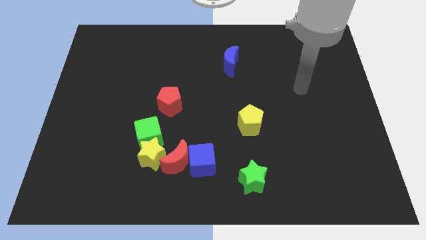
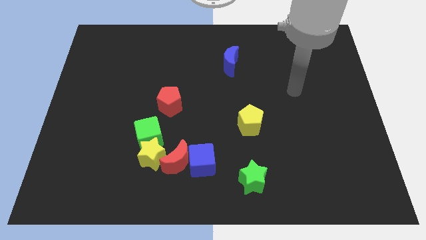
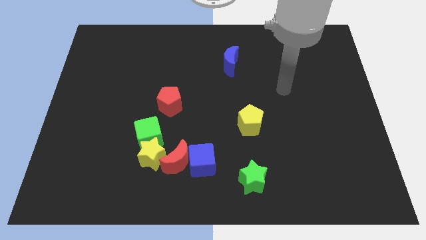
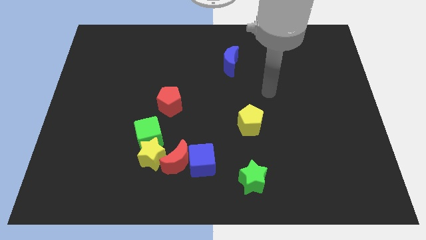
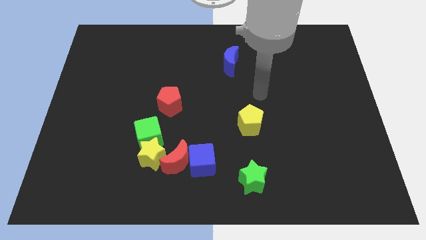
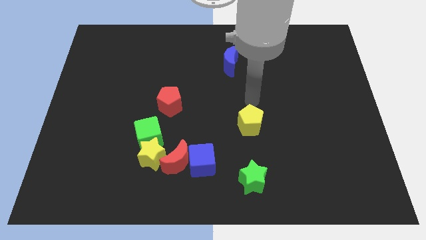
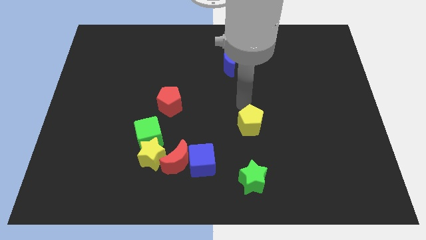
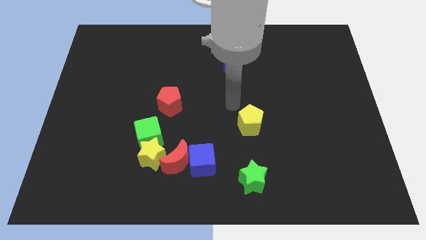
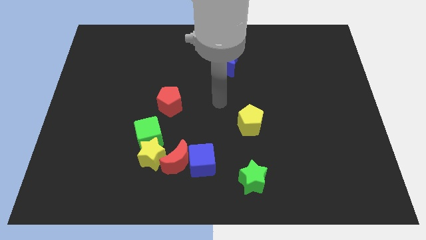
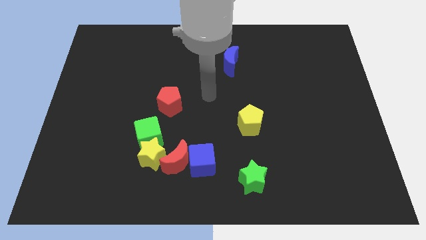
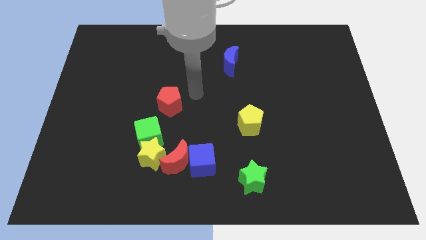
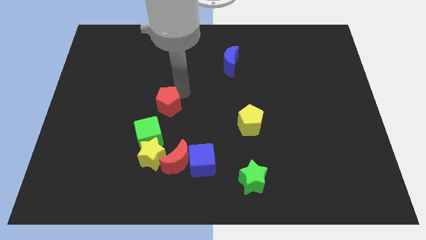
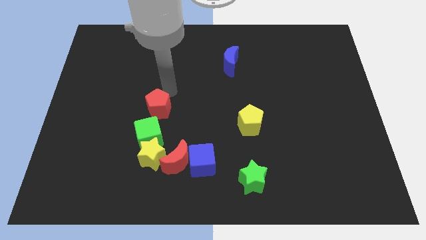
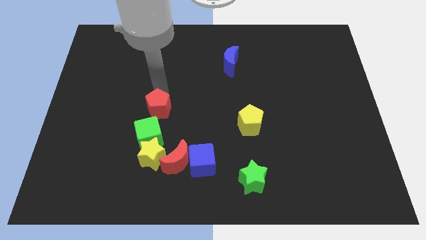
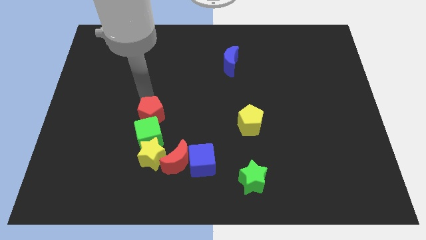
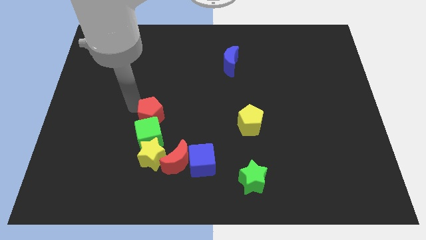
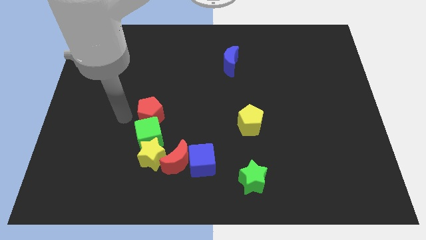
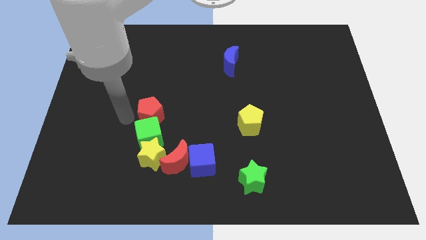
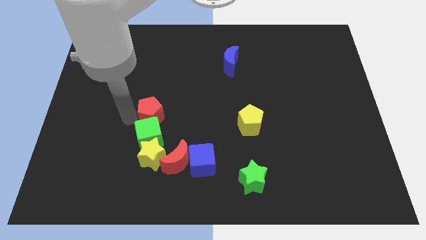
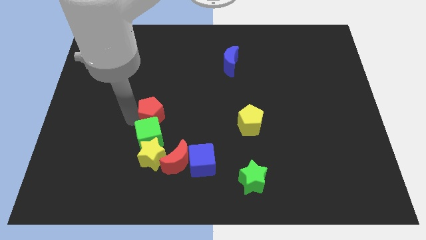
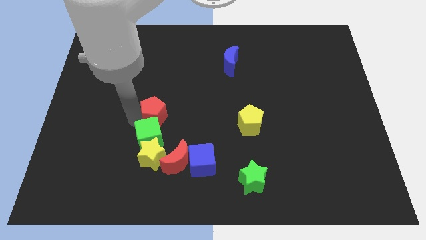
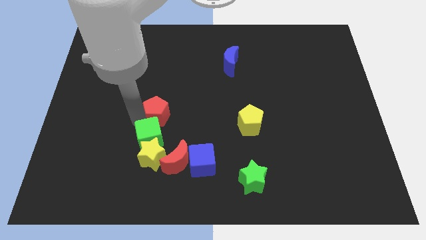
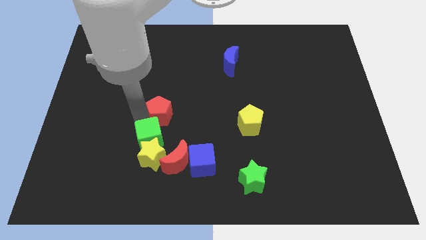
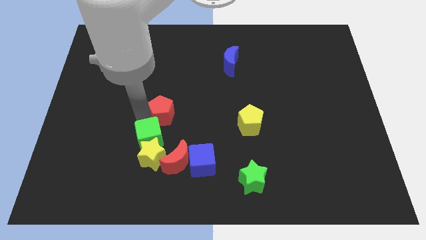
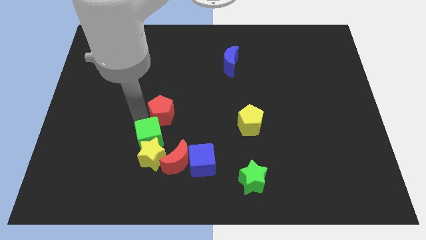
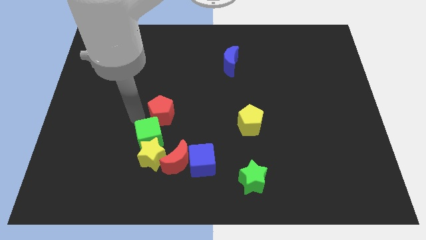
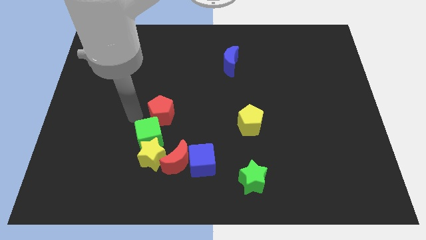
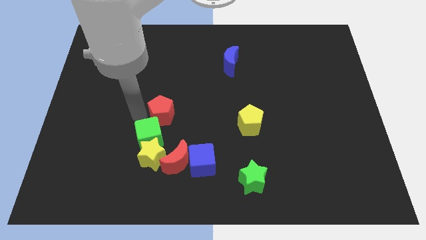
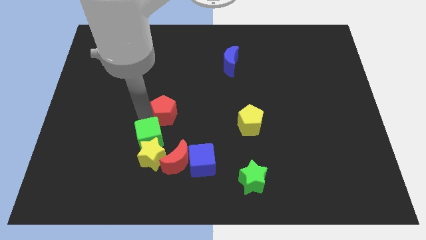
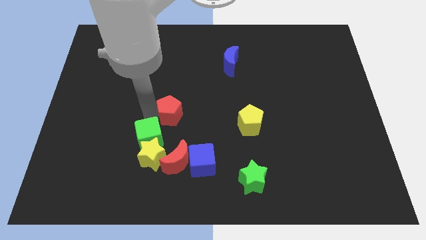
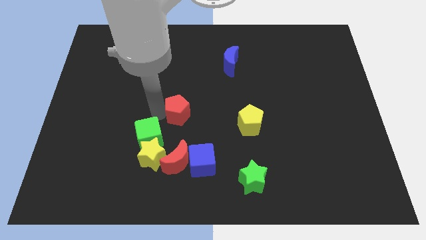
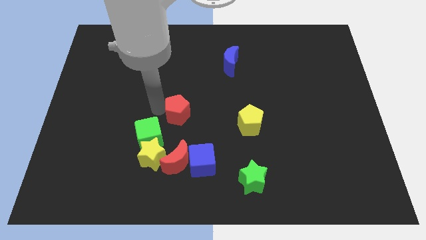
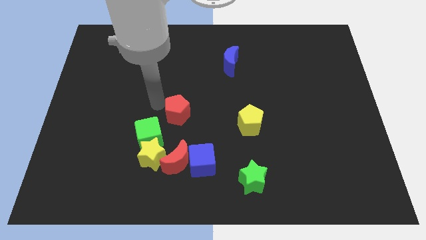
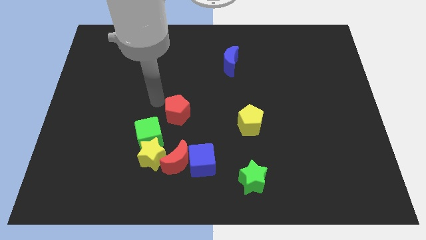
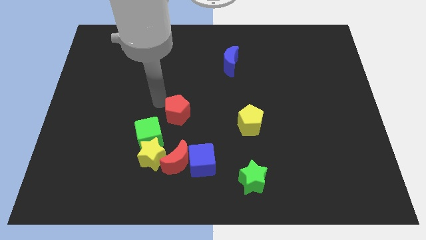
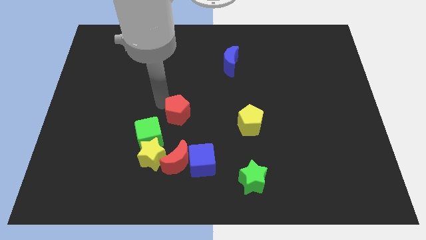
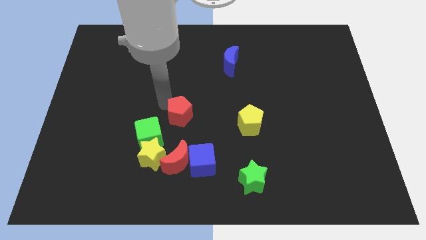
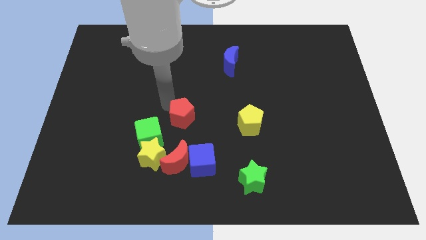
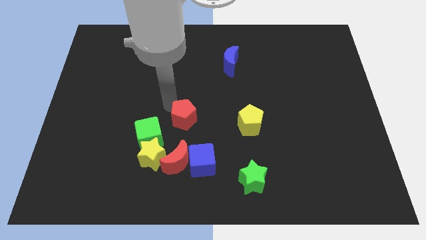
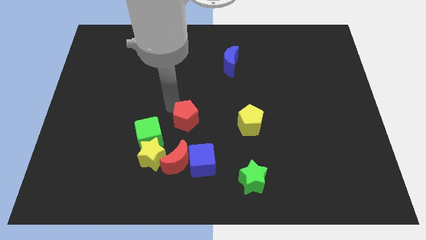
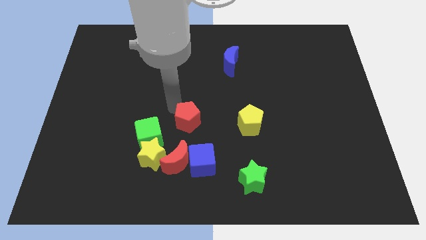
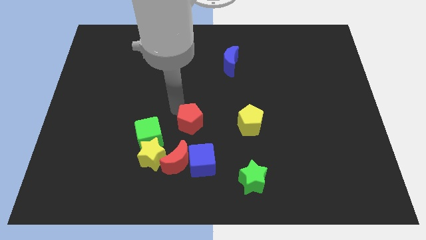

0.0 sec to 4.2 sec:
slightly slide the red pentagon down and right diagonally

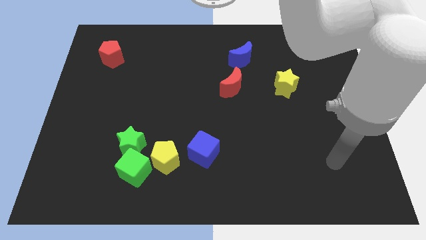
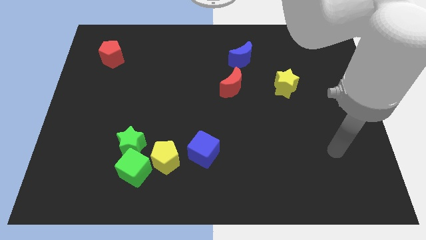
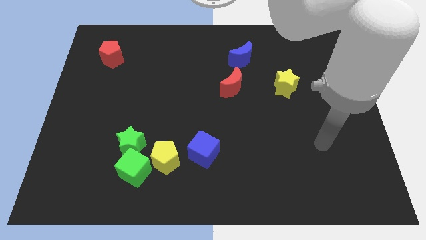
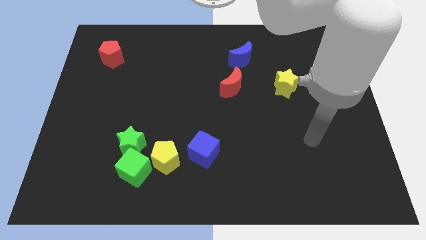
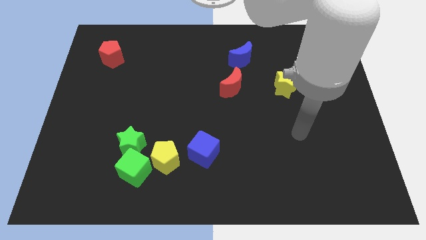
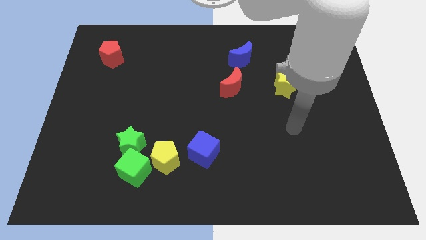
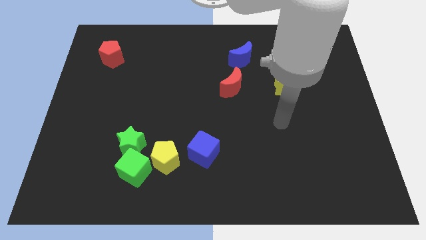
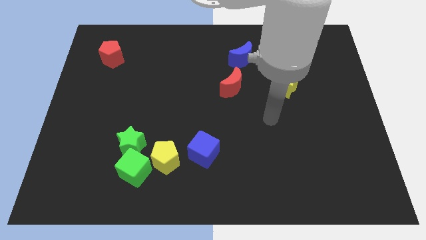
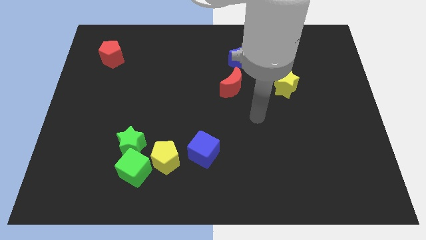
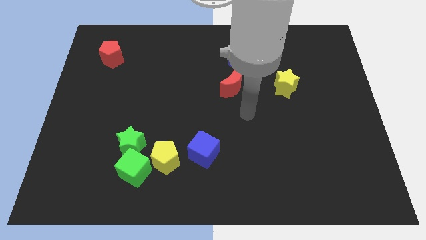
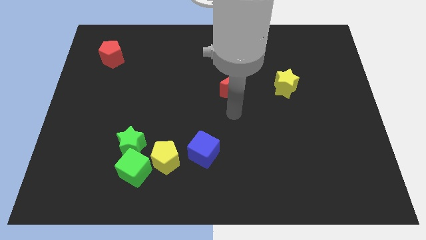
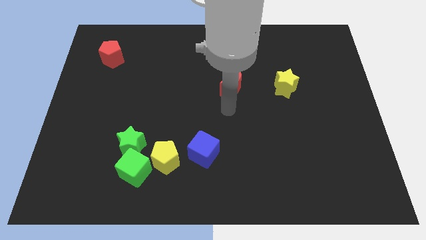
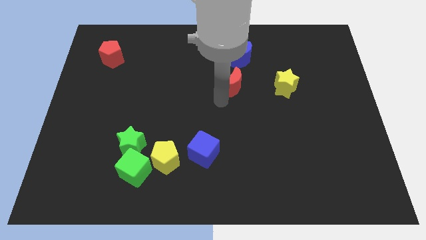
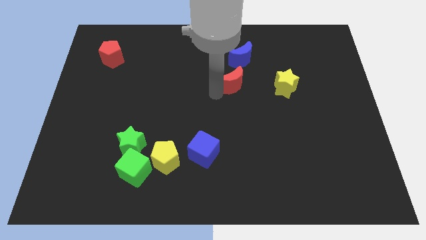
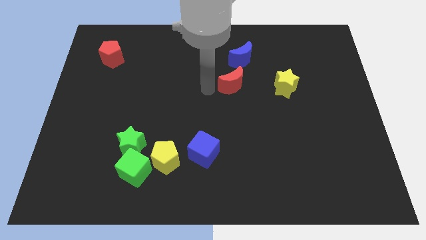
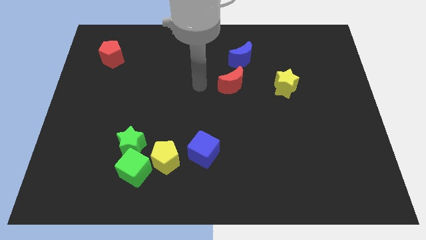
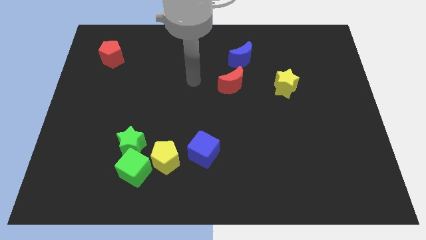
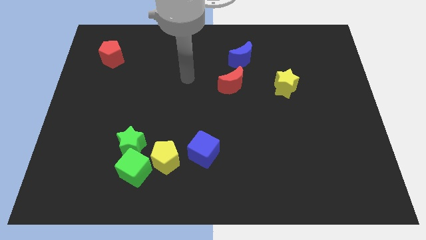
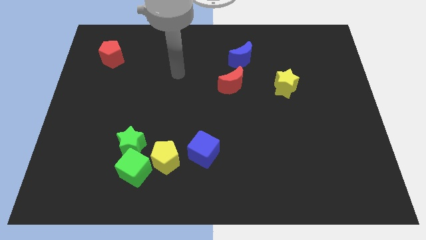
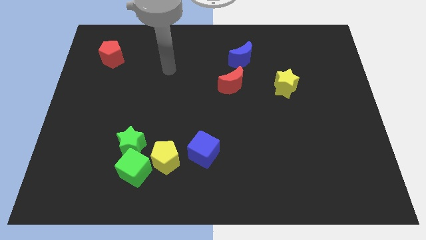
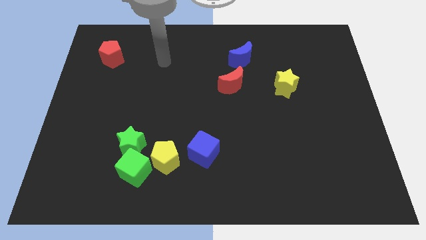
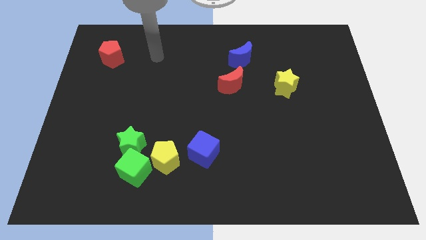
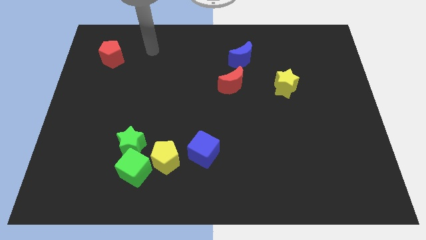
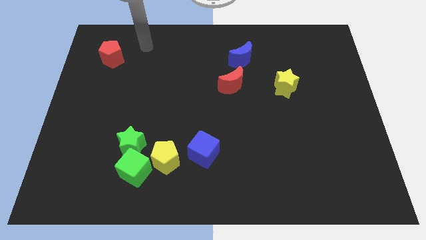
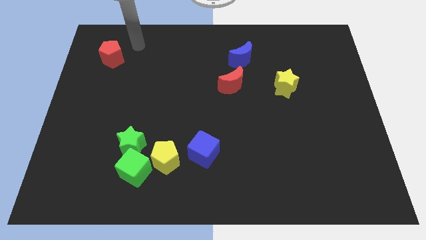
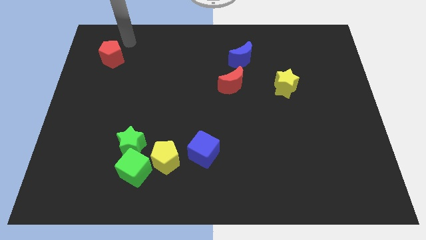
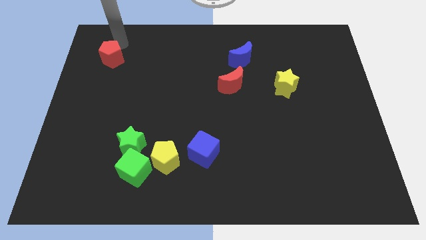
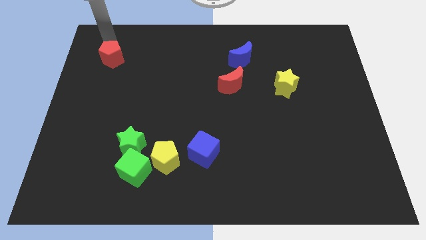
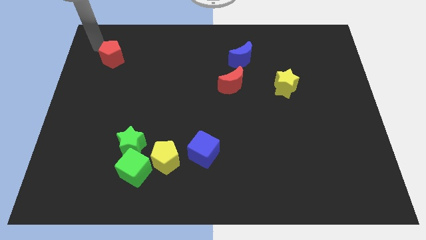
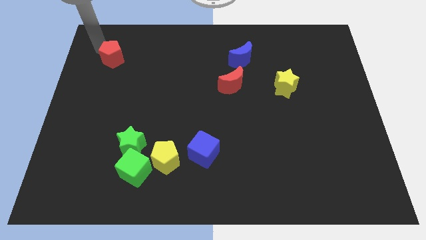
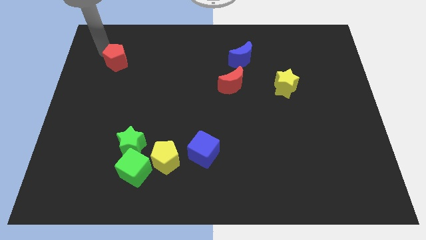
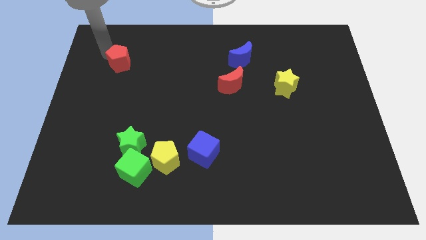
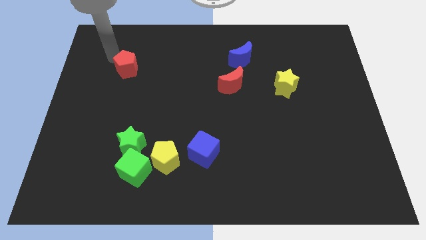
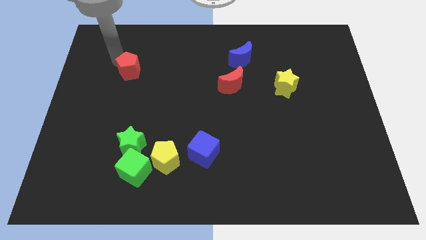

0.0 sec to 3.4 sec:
slightly push the red pentagon downwards and to the right

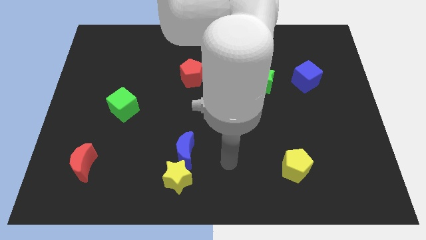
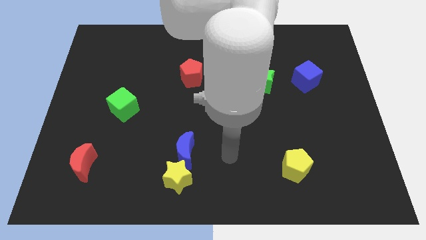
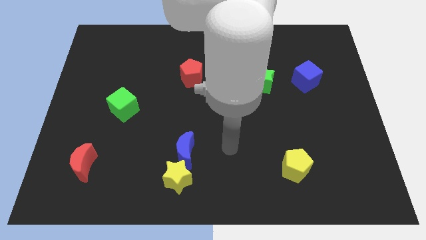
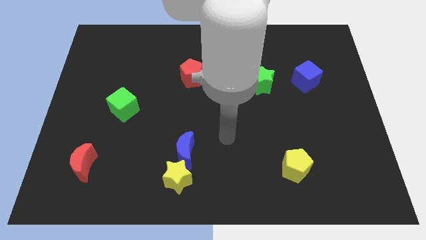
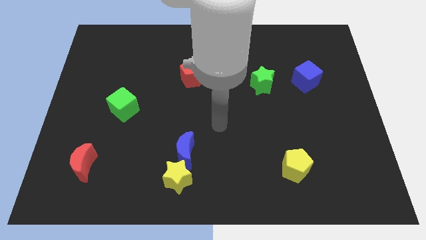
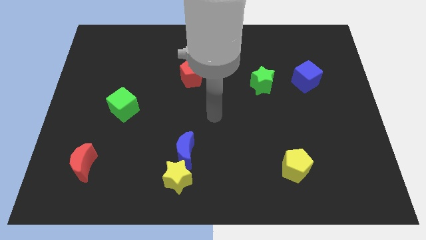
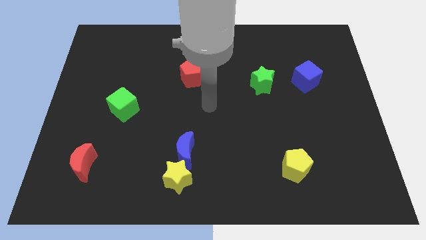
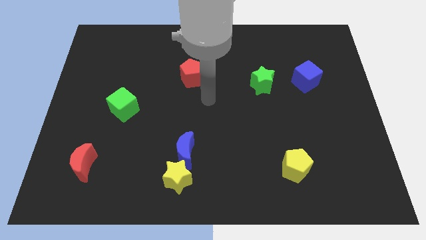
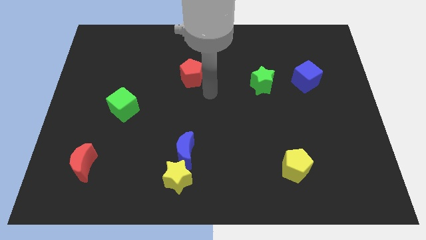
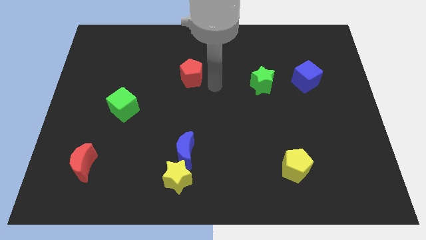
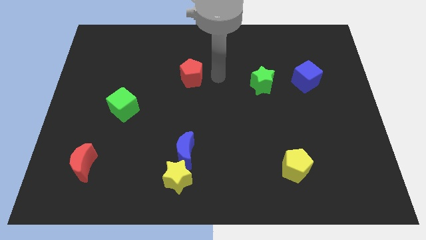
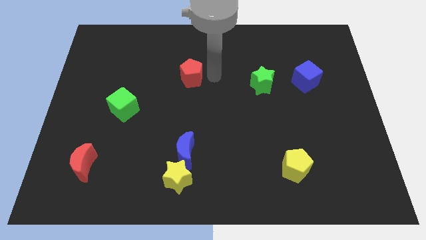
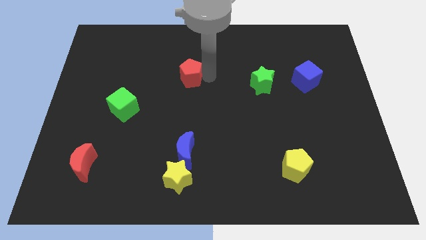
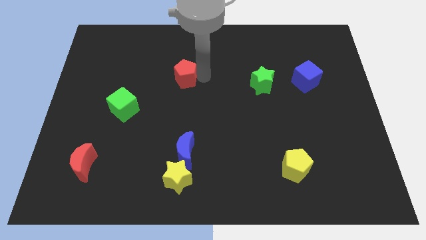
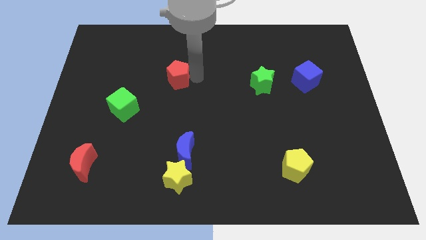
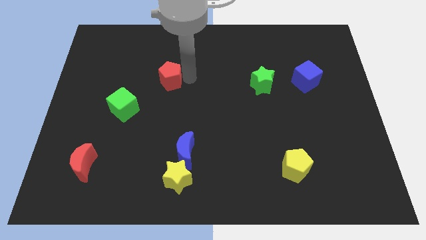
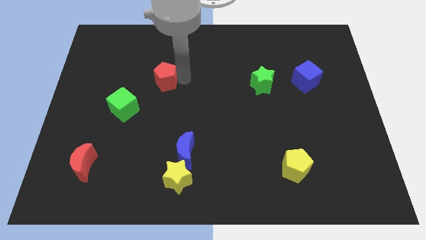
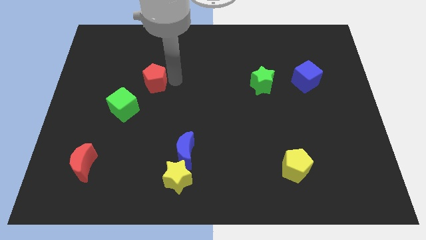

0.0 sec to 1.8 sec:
move the red pentagon slightly left
